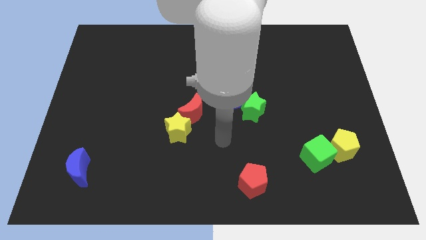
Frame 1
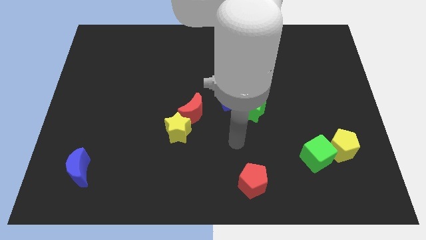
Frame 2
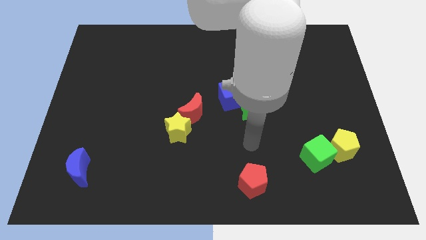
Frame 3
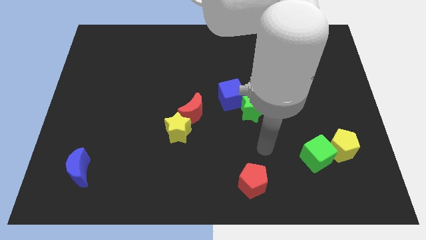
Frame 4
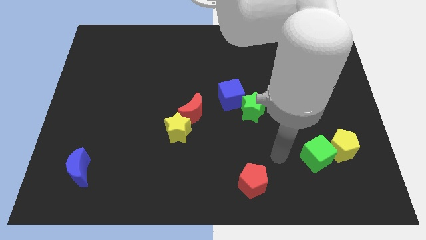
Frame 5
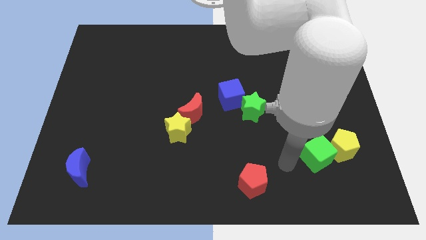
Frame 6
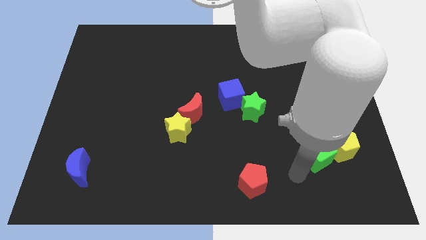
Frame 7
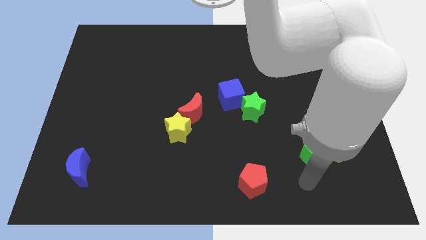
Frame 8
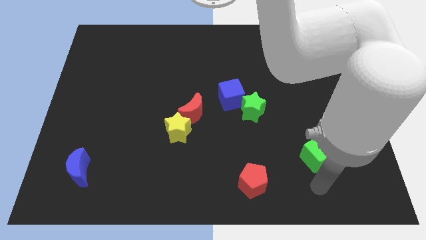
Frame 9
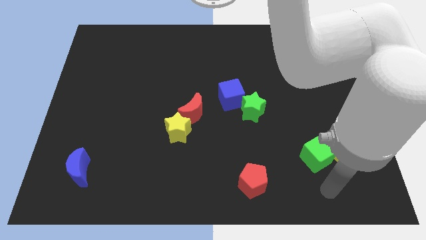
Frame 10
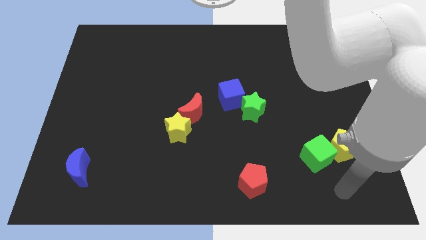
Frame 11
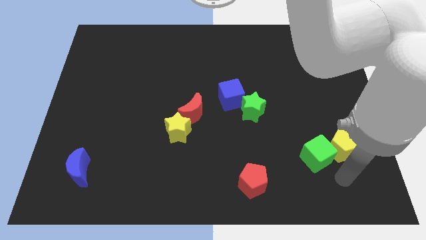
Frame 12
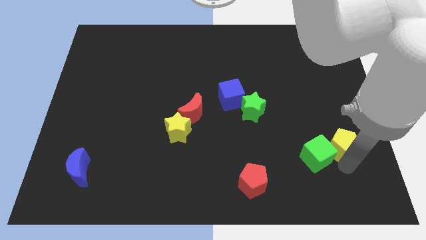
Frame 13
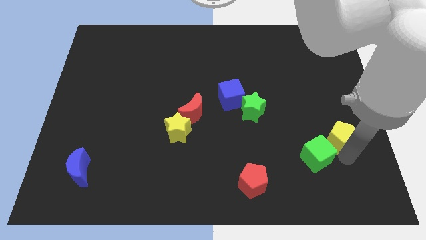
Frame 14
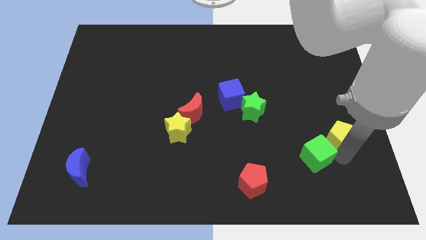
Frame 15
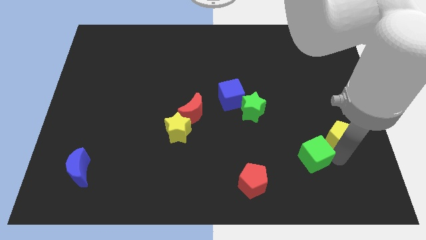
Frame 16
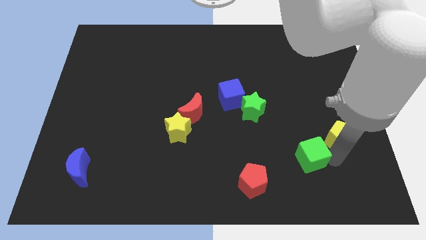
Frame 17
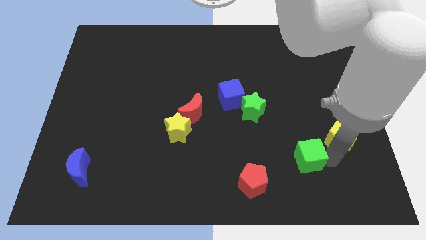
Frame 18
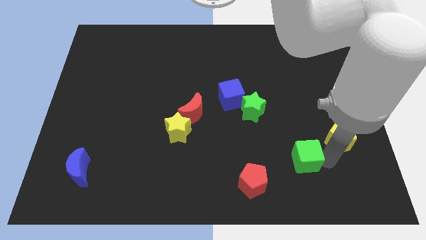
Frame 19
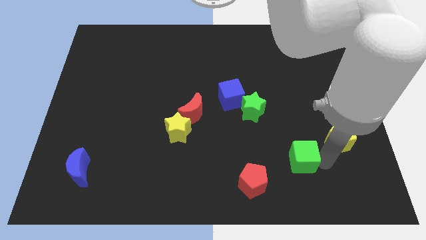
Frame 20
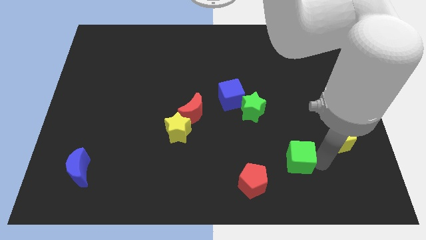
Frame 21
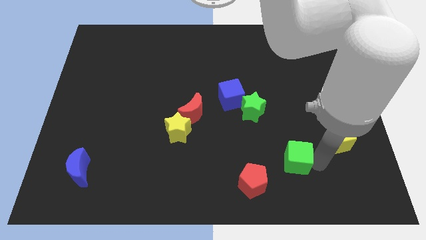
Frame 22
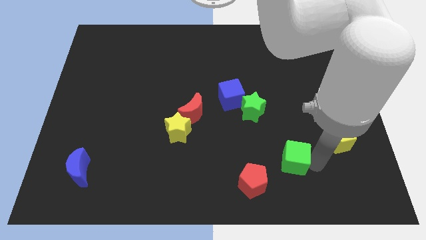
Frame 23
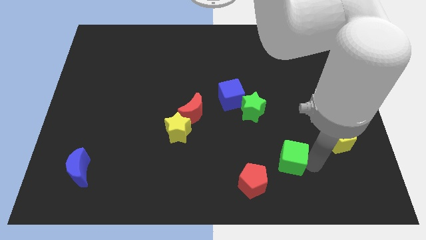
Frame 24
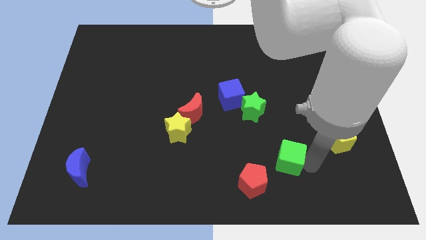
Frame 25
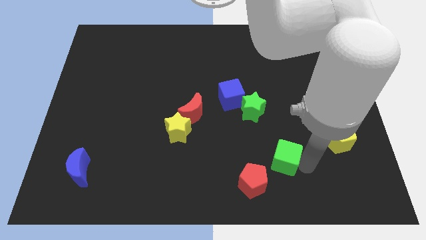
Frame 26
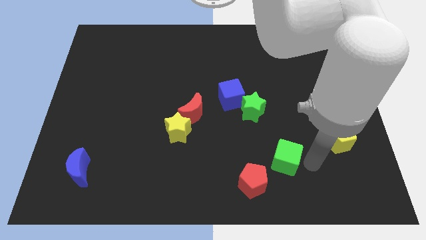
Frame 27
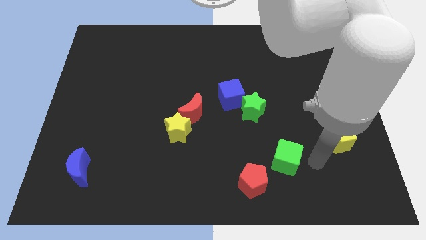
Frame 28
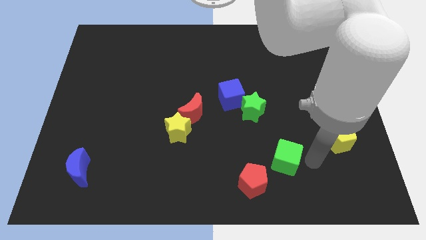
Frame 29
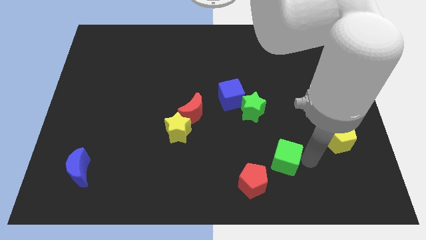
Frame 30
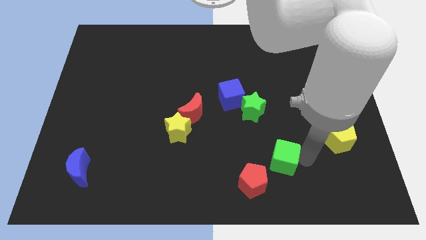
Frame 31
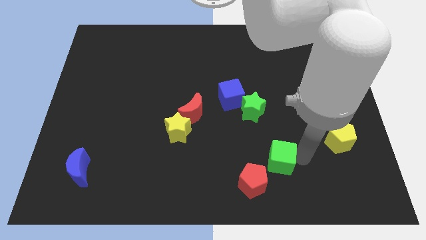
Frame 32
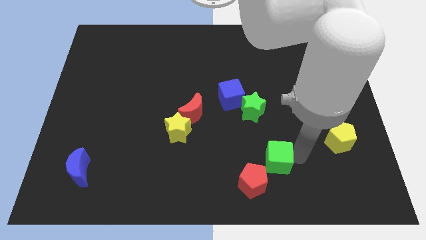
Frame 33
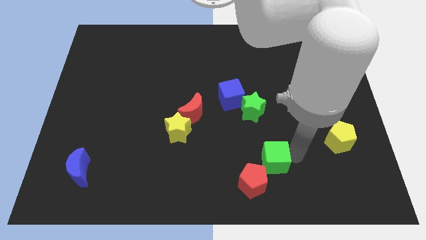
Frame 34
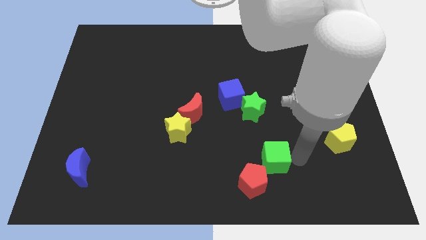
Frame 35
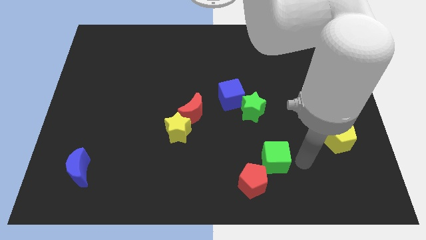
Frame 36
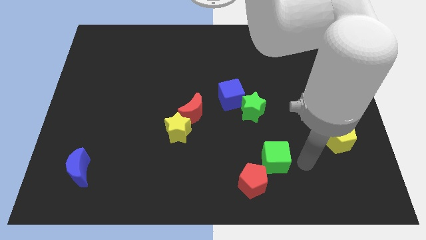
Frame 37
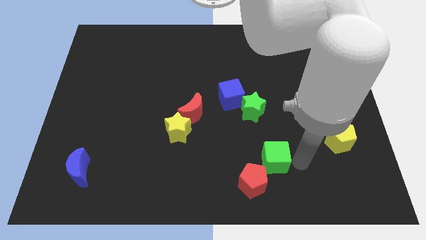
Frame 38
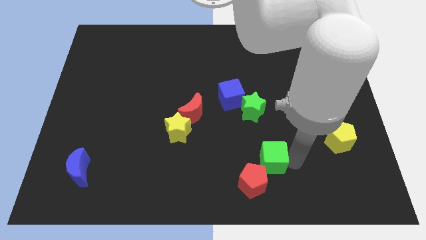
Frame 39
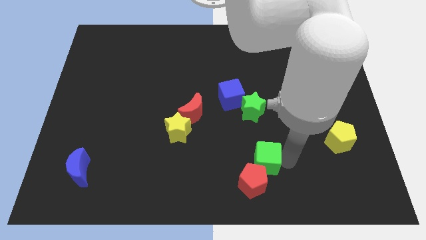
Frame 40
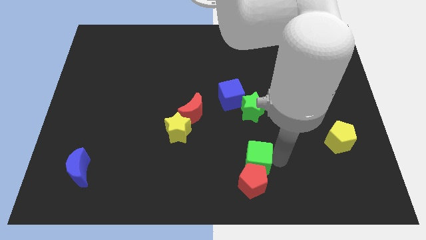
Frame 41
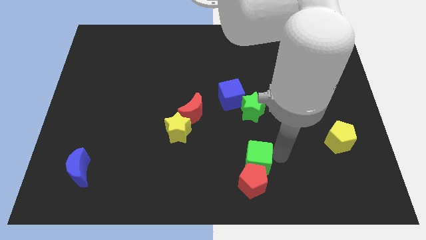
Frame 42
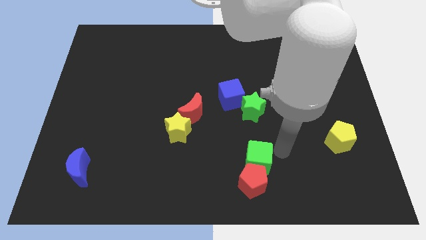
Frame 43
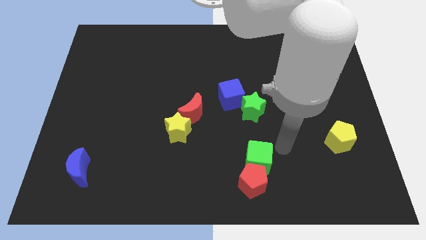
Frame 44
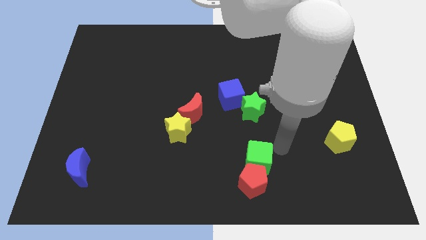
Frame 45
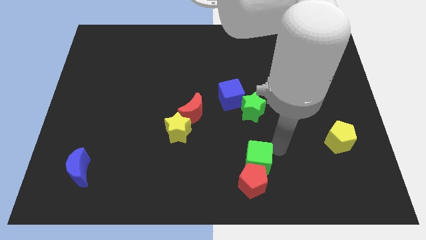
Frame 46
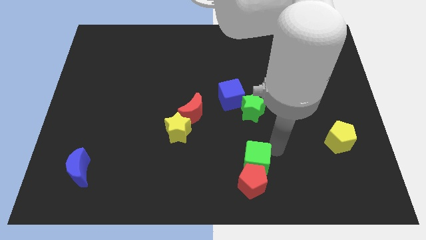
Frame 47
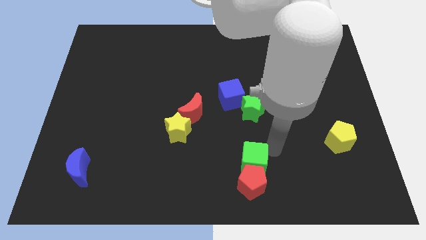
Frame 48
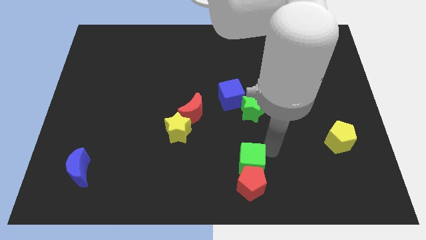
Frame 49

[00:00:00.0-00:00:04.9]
put the green cube to the bottom side

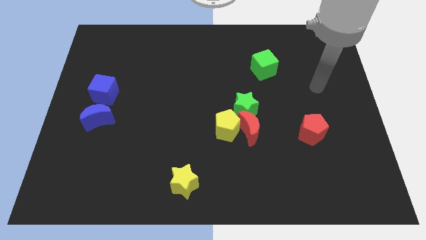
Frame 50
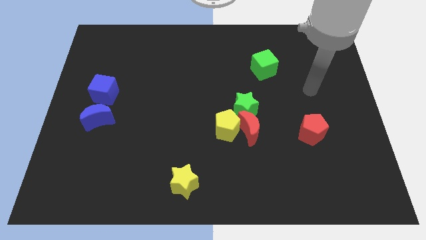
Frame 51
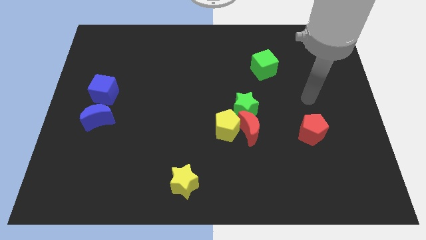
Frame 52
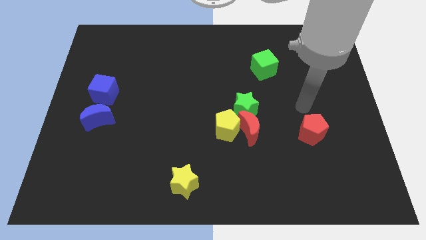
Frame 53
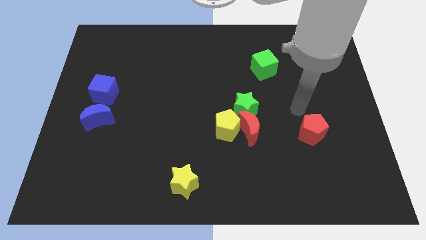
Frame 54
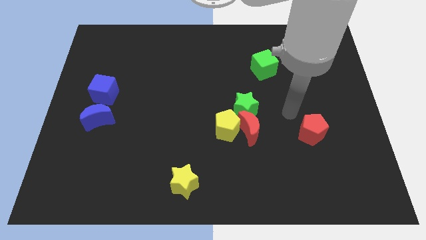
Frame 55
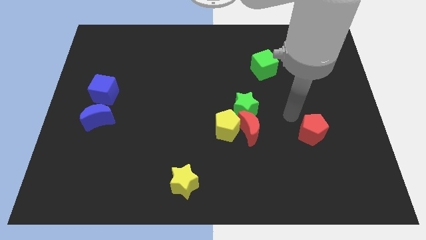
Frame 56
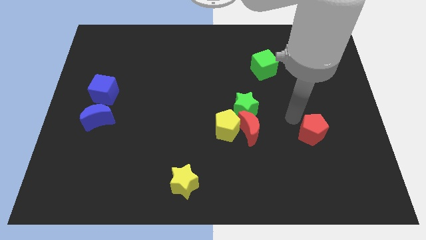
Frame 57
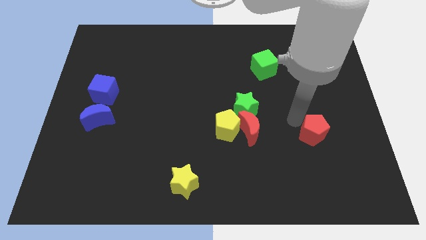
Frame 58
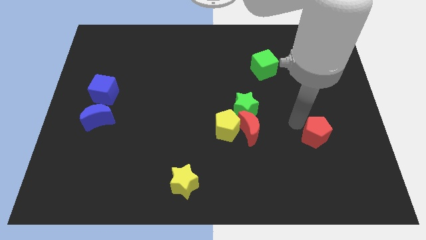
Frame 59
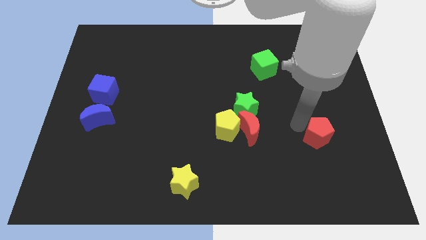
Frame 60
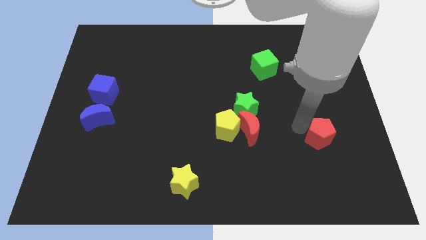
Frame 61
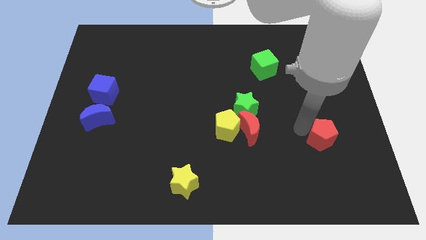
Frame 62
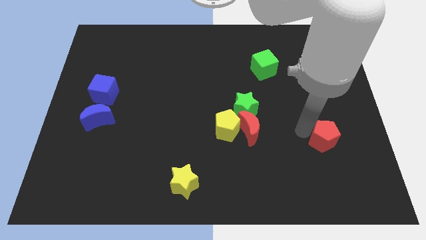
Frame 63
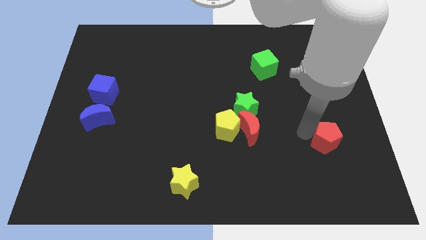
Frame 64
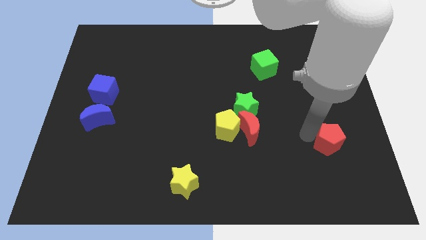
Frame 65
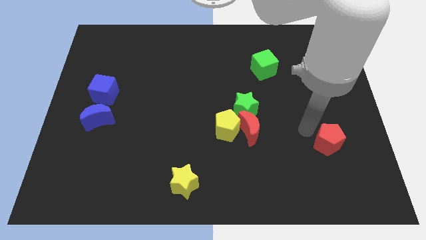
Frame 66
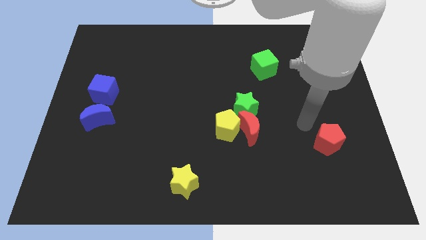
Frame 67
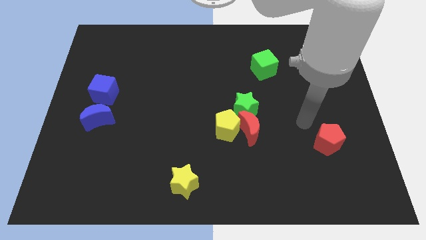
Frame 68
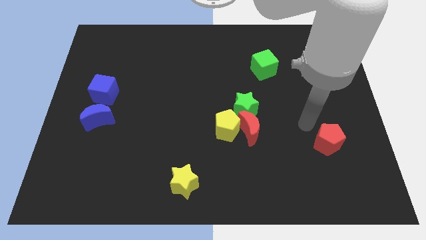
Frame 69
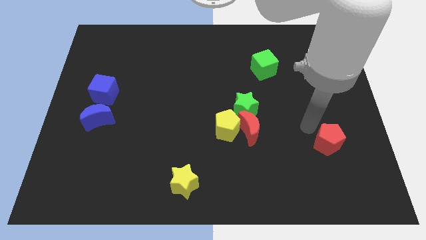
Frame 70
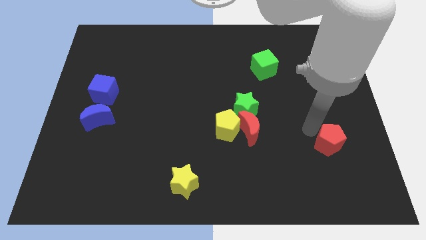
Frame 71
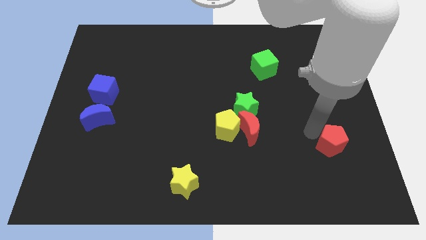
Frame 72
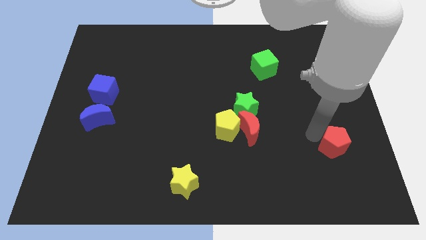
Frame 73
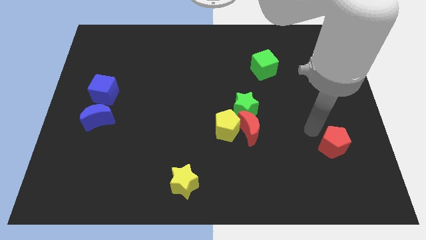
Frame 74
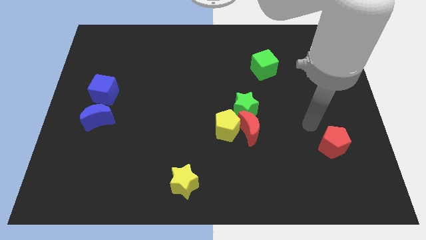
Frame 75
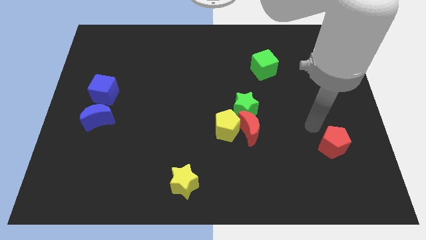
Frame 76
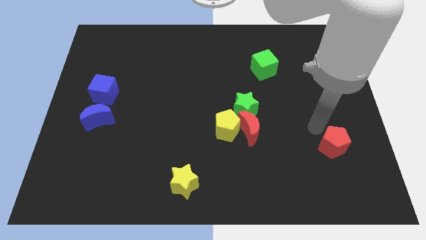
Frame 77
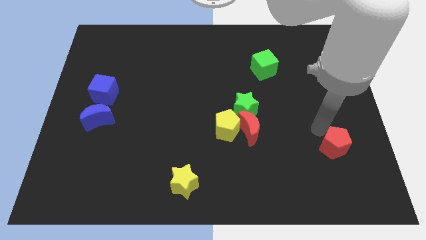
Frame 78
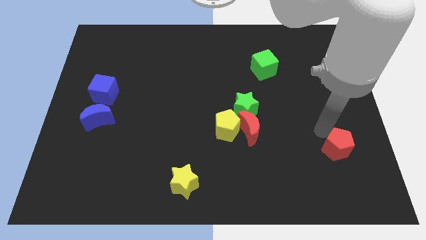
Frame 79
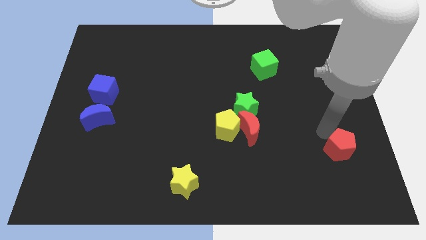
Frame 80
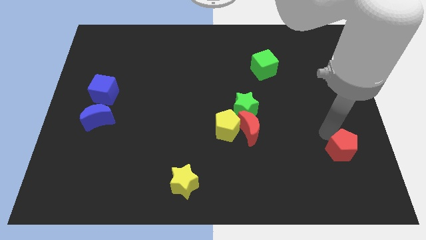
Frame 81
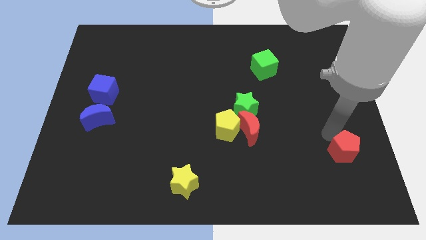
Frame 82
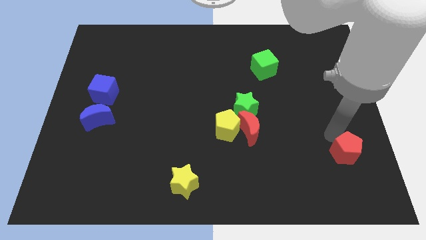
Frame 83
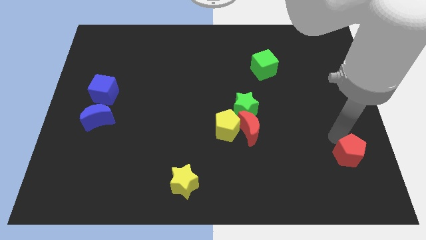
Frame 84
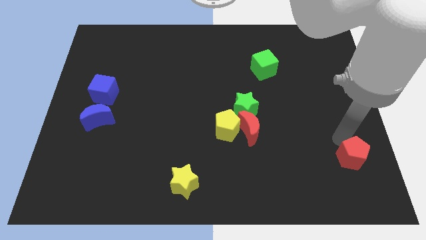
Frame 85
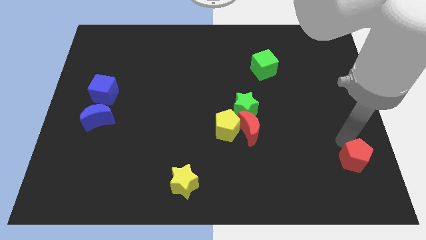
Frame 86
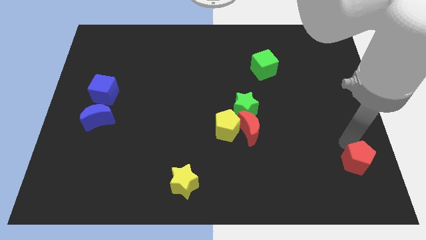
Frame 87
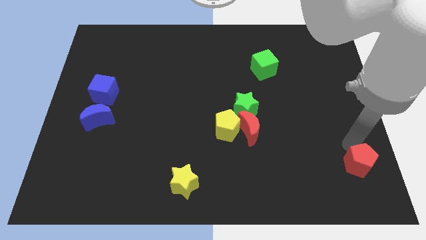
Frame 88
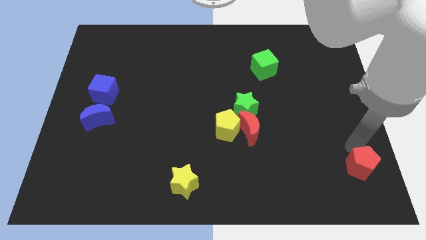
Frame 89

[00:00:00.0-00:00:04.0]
put the red pentagon to the lower right corner
